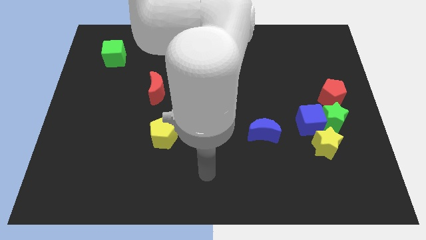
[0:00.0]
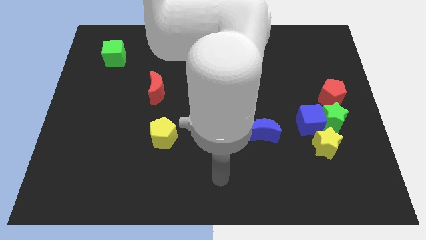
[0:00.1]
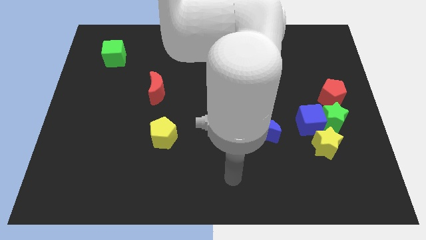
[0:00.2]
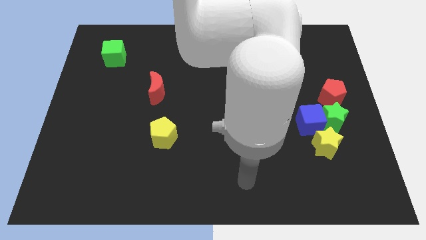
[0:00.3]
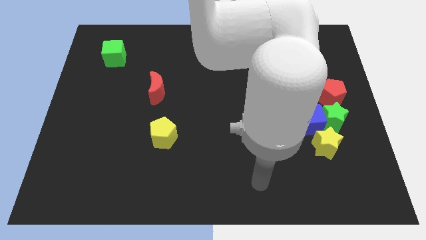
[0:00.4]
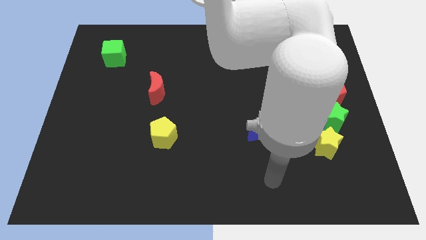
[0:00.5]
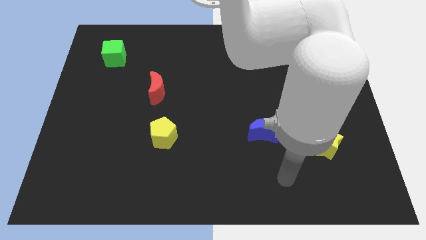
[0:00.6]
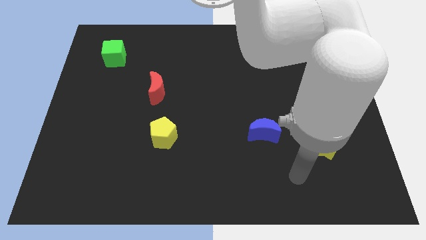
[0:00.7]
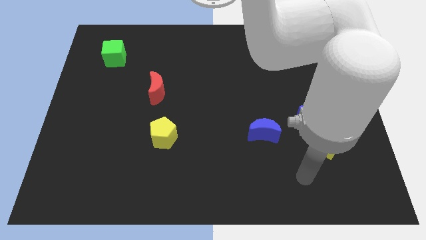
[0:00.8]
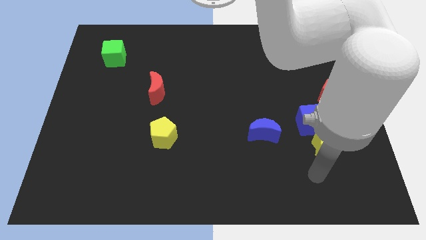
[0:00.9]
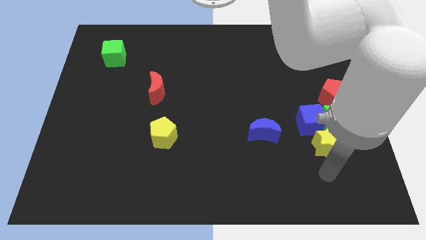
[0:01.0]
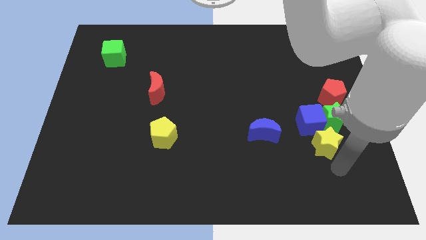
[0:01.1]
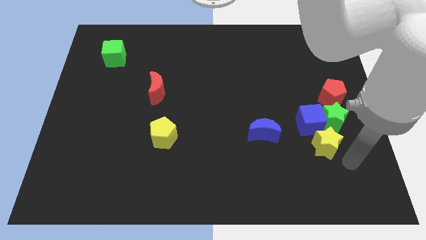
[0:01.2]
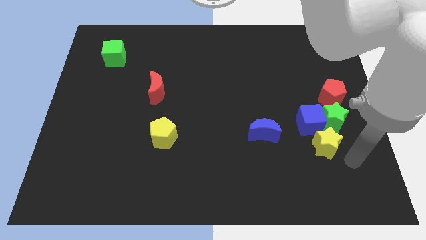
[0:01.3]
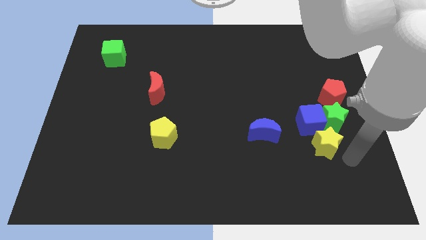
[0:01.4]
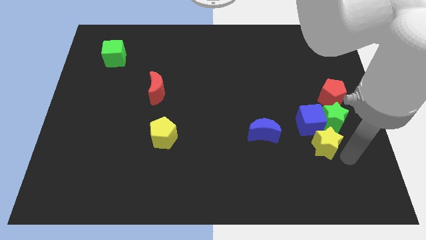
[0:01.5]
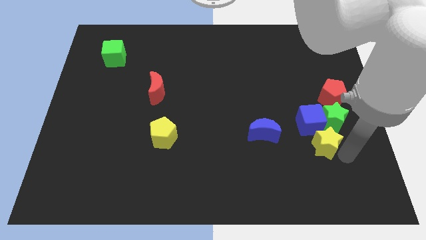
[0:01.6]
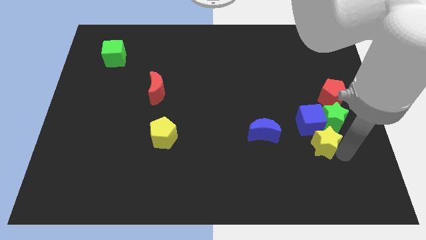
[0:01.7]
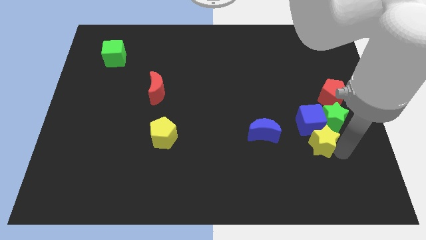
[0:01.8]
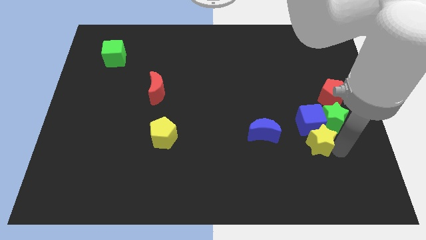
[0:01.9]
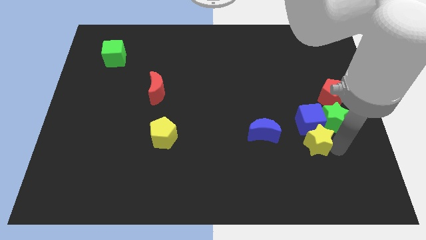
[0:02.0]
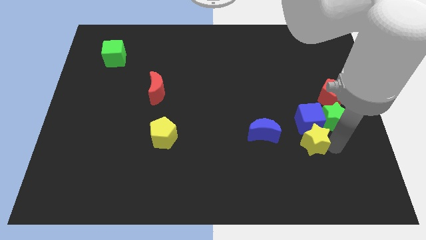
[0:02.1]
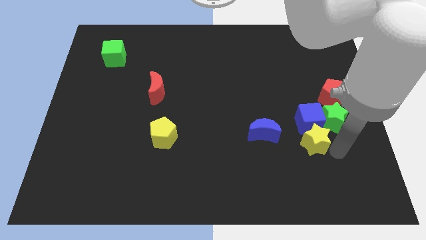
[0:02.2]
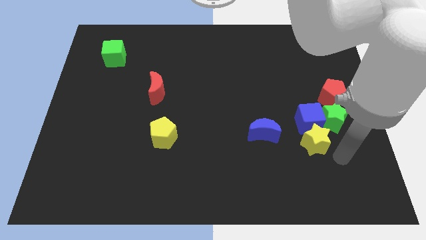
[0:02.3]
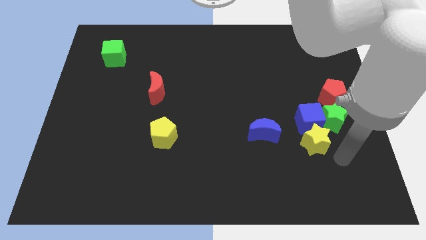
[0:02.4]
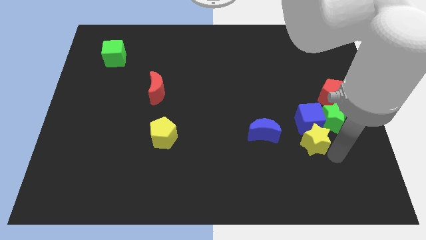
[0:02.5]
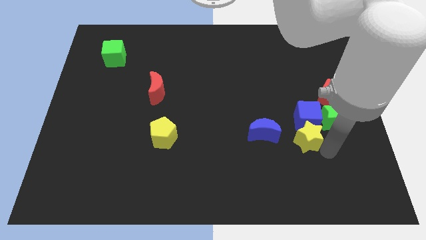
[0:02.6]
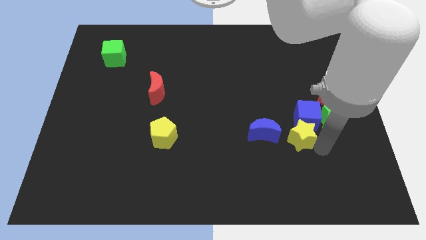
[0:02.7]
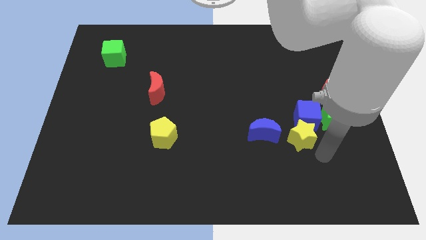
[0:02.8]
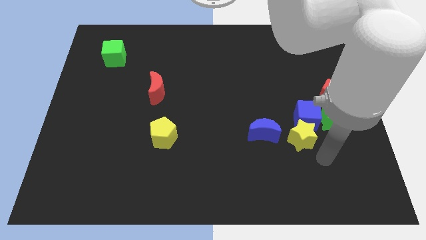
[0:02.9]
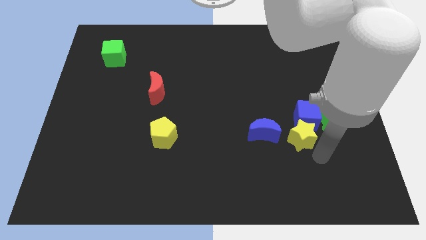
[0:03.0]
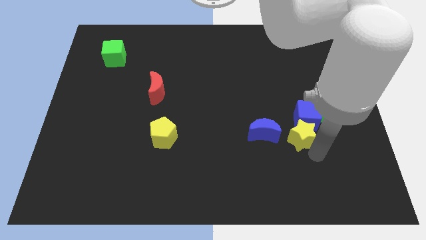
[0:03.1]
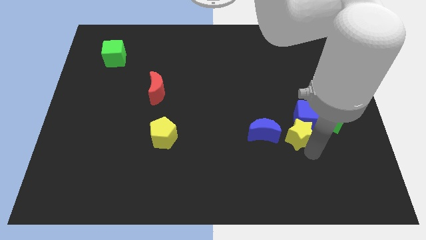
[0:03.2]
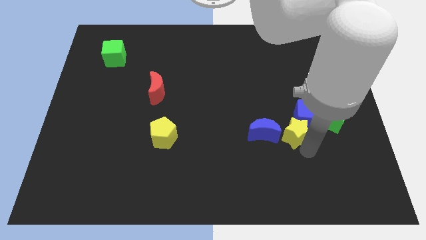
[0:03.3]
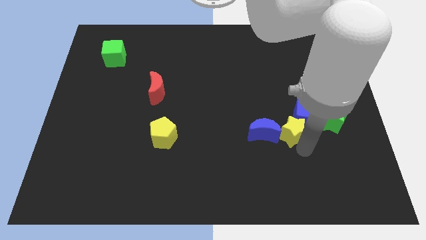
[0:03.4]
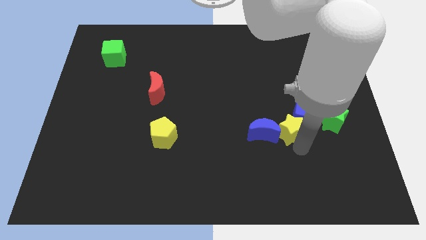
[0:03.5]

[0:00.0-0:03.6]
move the yellow star a little up and then to the left

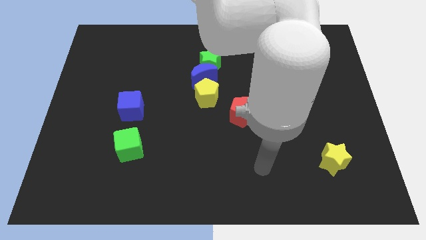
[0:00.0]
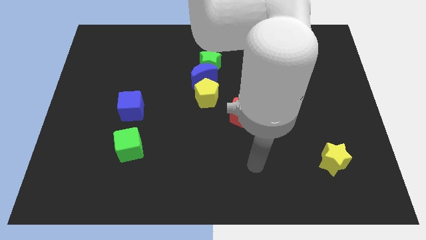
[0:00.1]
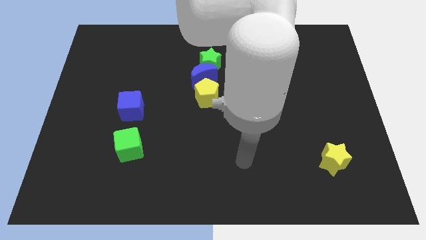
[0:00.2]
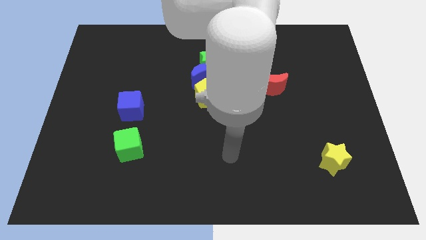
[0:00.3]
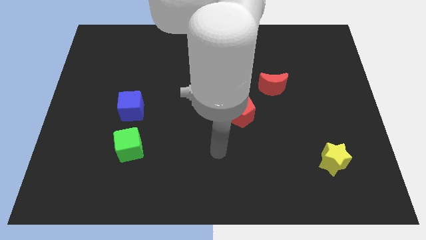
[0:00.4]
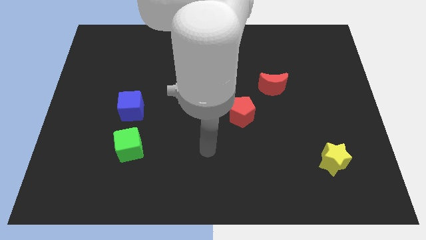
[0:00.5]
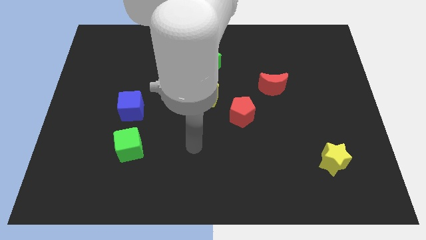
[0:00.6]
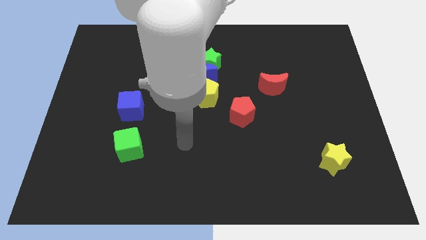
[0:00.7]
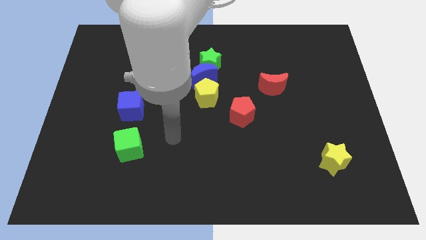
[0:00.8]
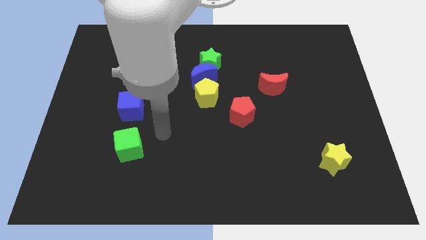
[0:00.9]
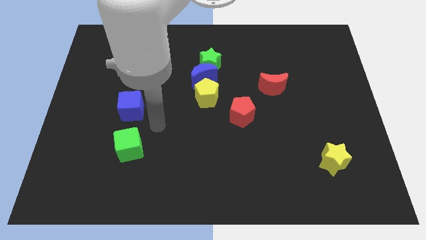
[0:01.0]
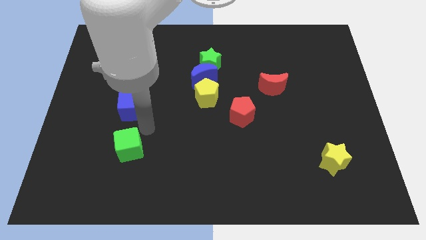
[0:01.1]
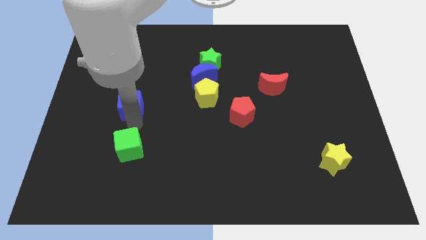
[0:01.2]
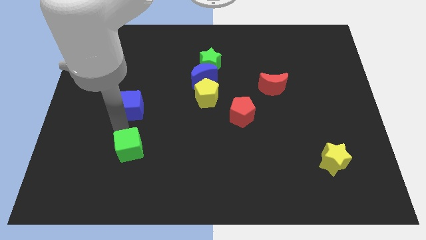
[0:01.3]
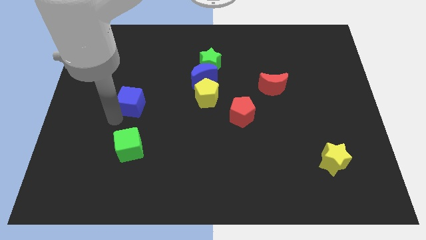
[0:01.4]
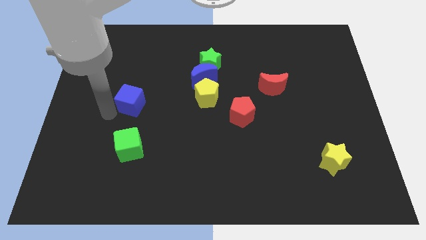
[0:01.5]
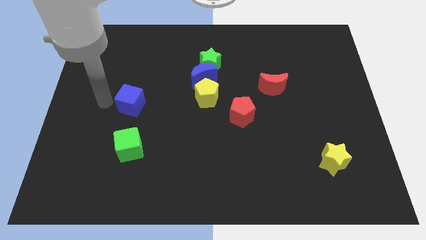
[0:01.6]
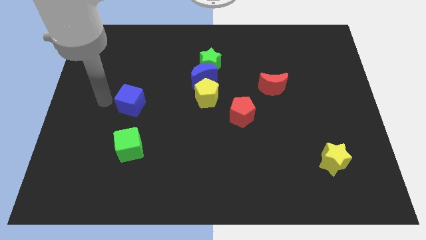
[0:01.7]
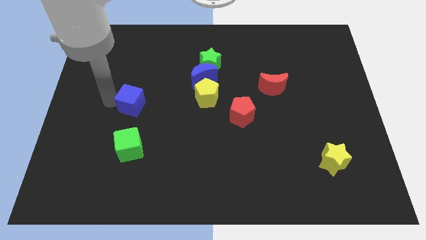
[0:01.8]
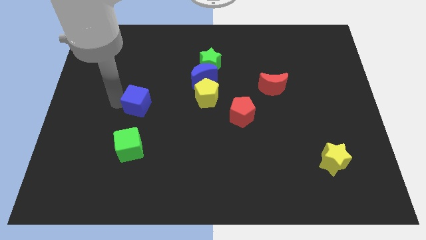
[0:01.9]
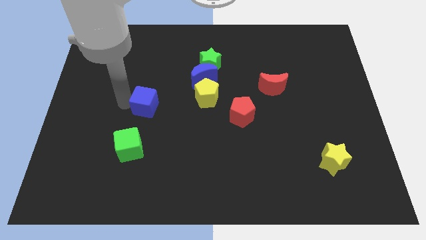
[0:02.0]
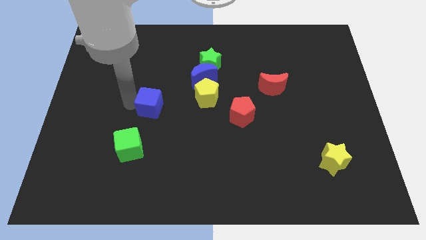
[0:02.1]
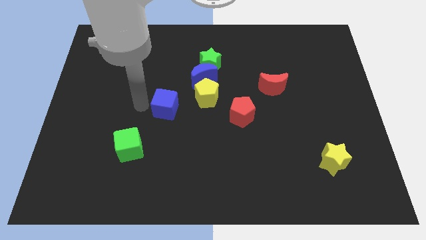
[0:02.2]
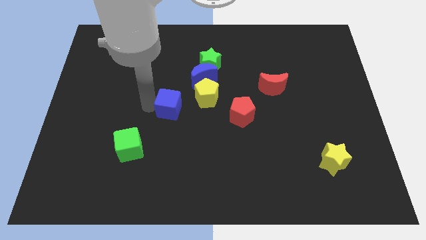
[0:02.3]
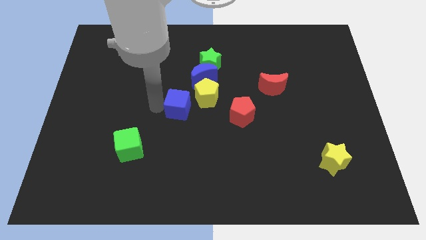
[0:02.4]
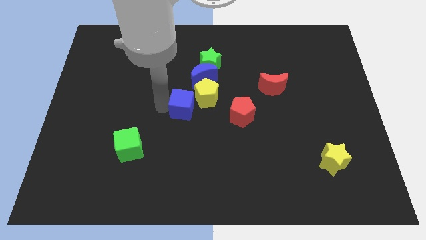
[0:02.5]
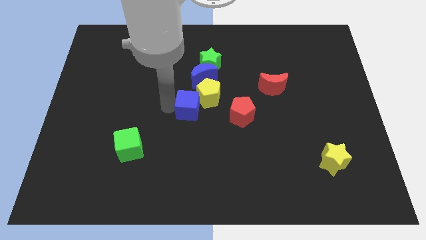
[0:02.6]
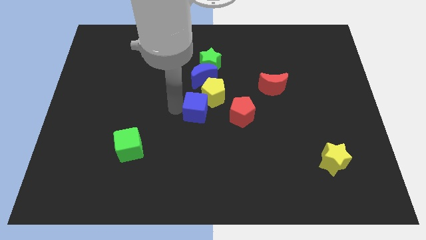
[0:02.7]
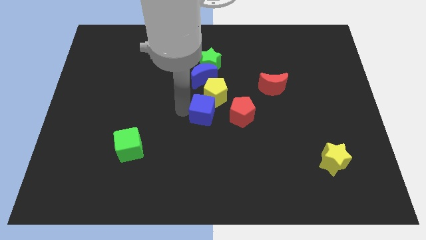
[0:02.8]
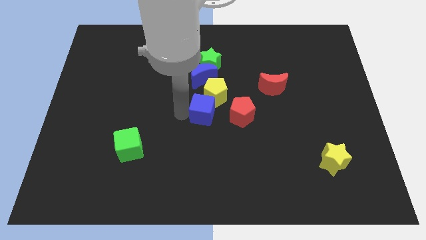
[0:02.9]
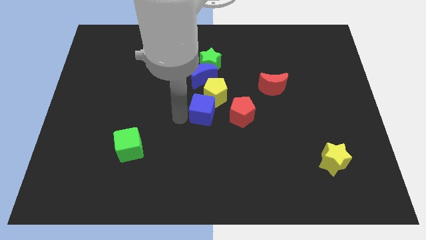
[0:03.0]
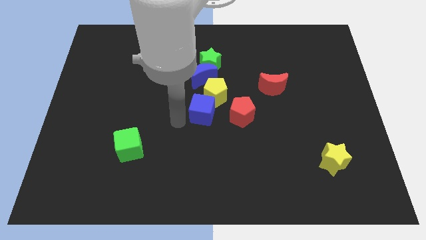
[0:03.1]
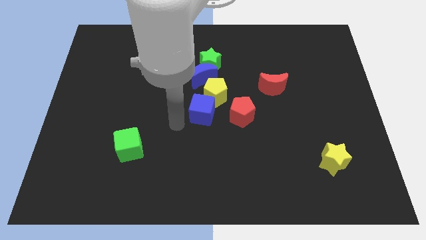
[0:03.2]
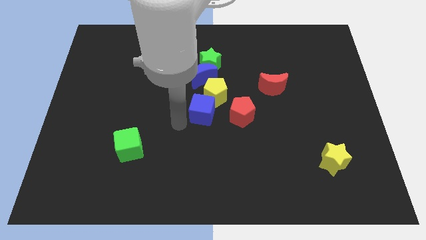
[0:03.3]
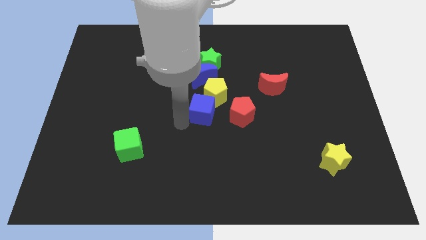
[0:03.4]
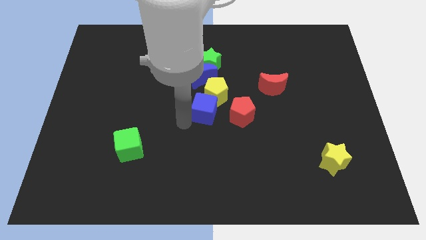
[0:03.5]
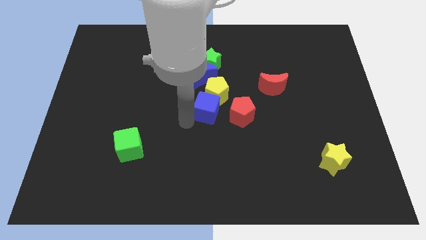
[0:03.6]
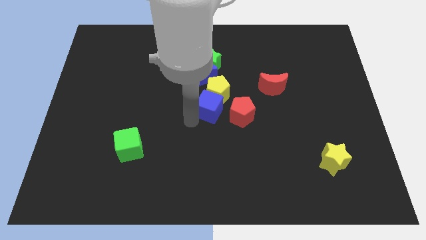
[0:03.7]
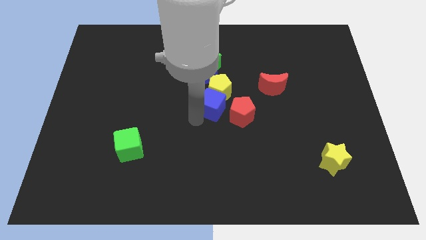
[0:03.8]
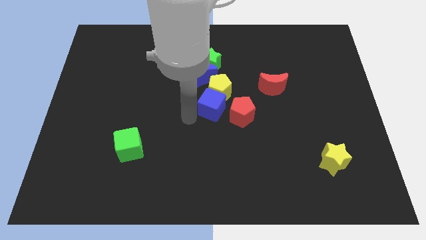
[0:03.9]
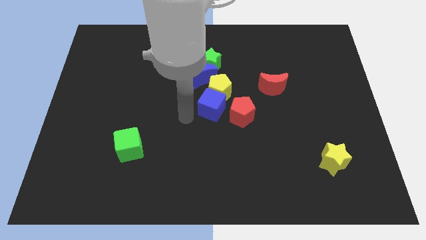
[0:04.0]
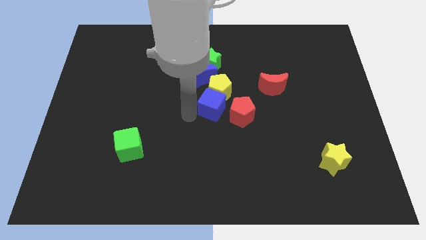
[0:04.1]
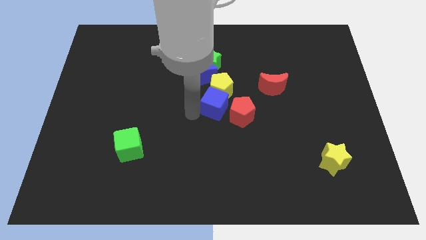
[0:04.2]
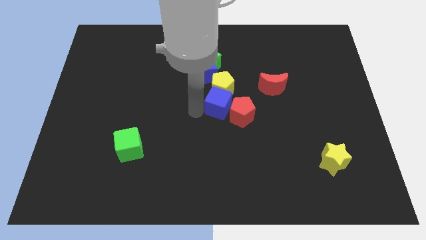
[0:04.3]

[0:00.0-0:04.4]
push the blue cube right
